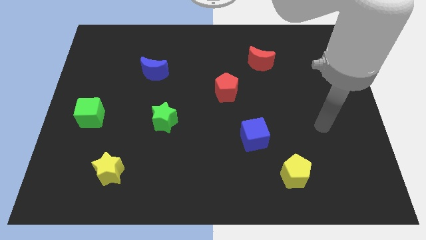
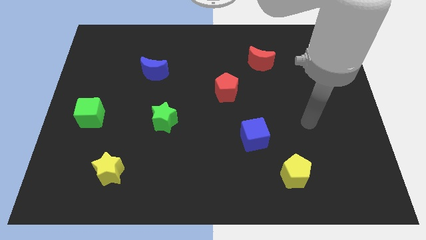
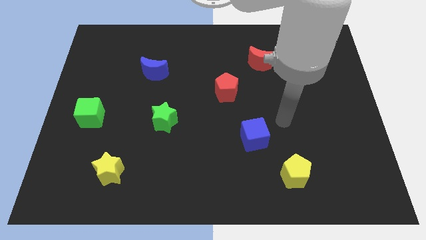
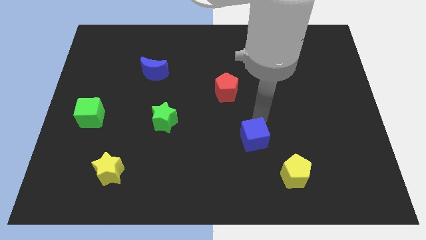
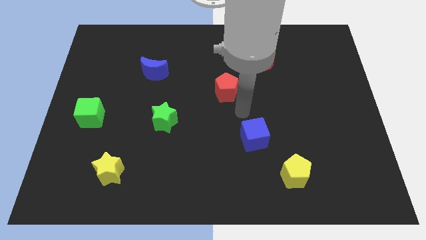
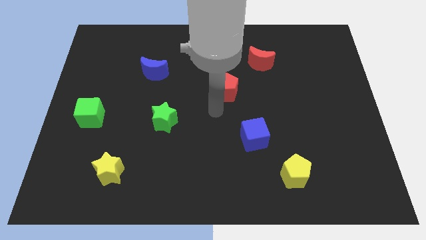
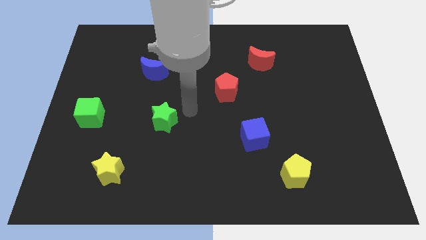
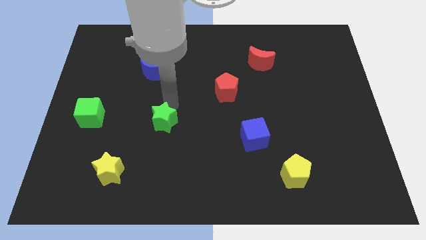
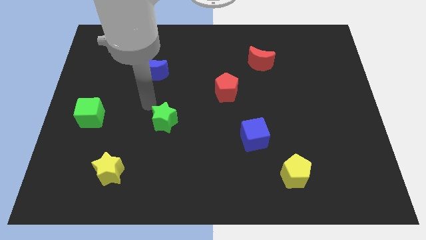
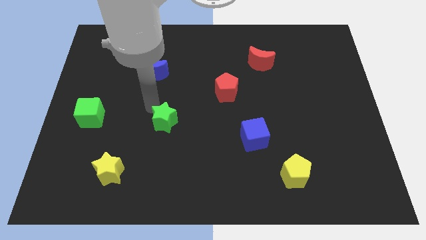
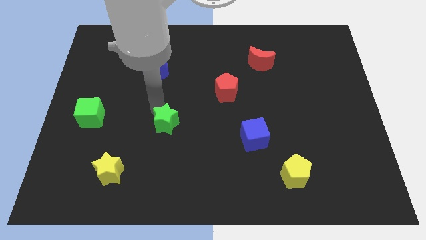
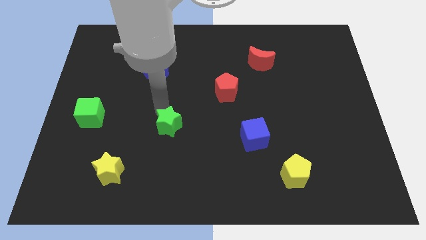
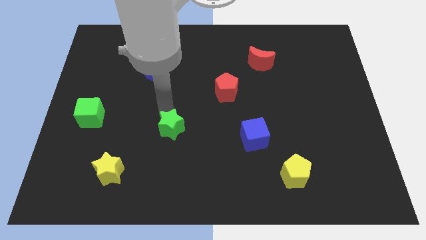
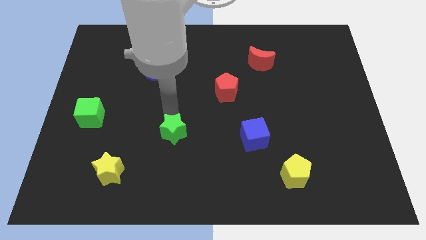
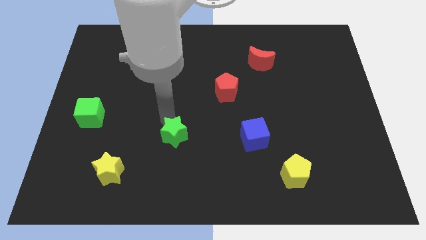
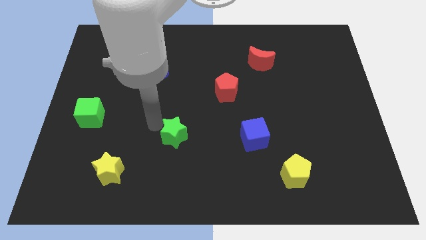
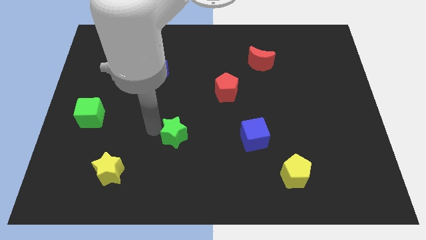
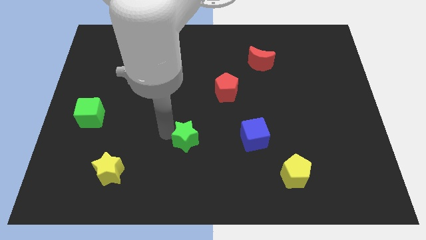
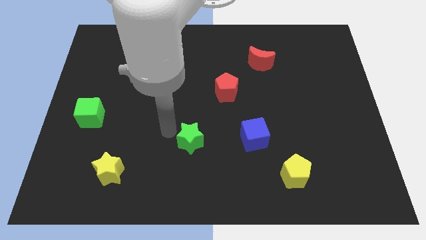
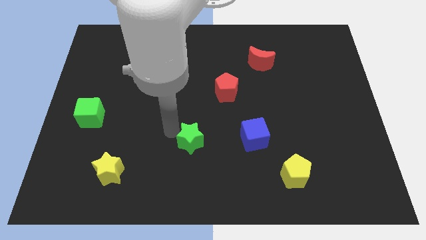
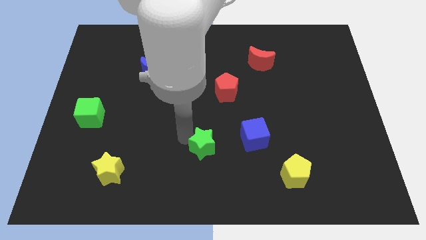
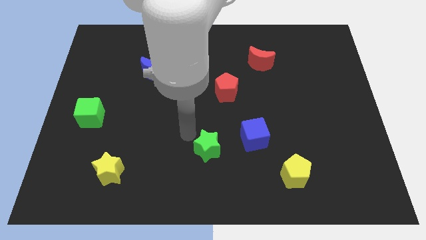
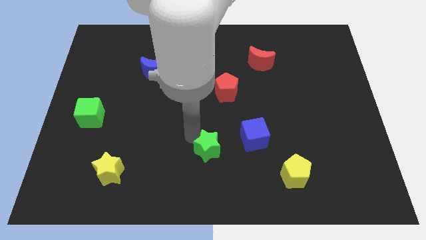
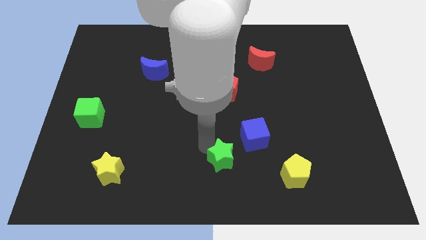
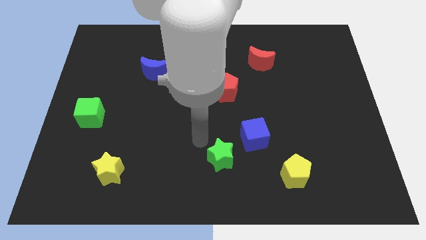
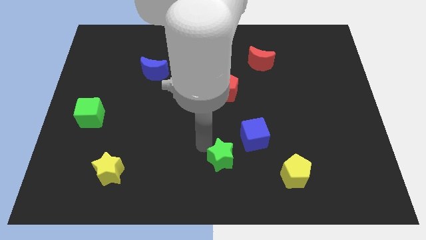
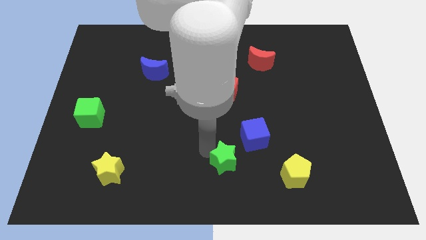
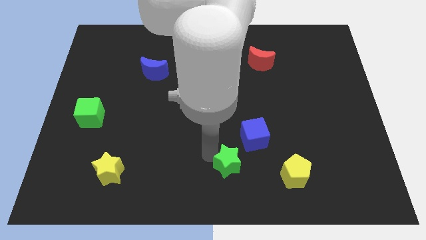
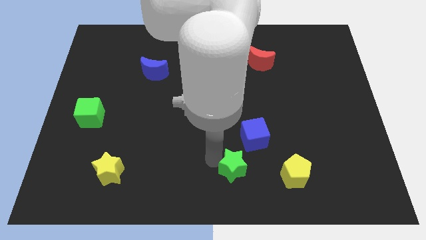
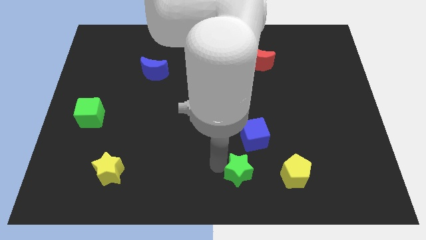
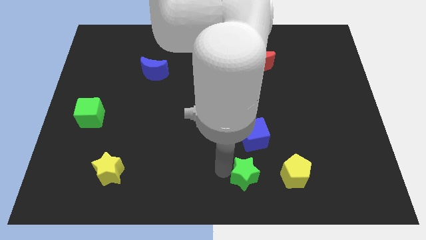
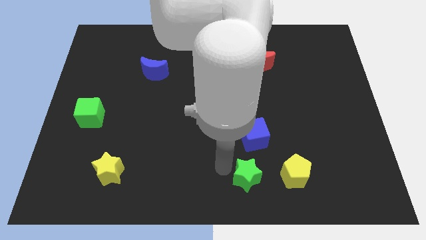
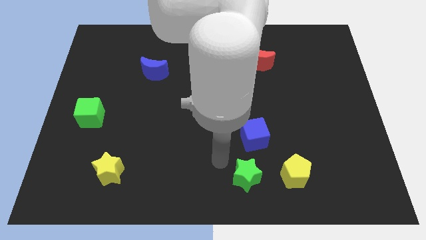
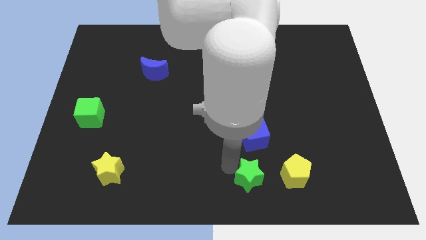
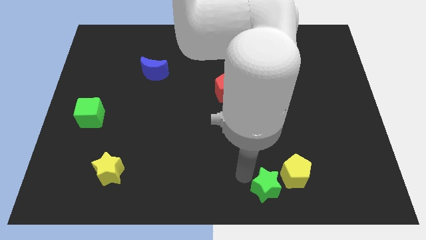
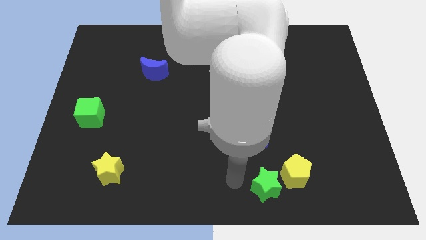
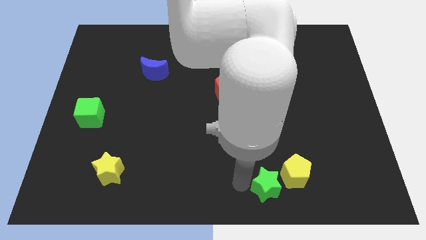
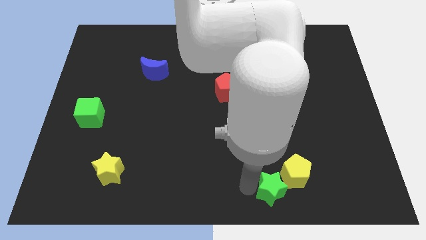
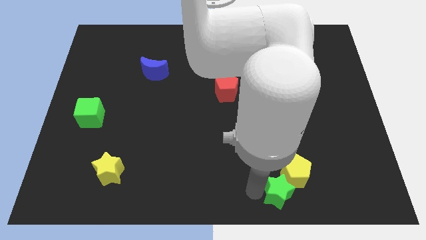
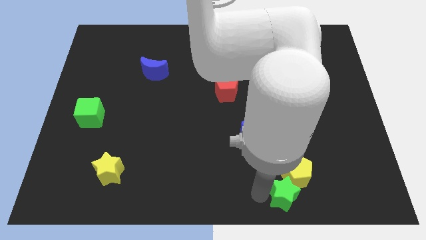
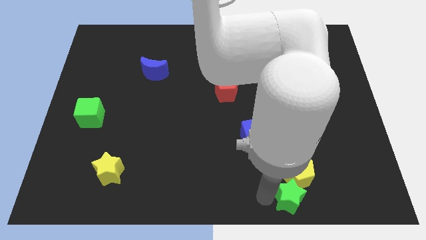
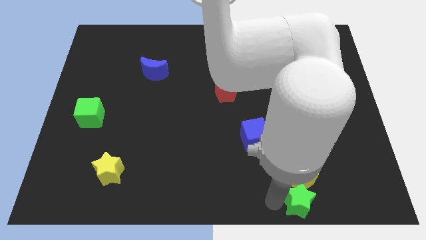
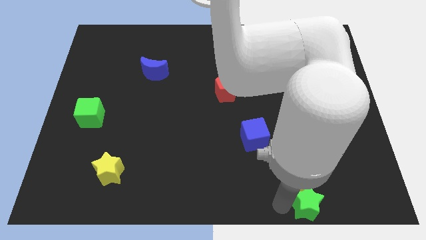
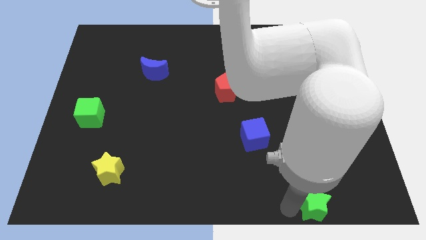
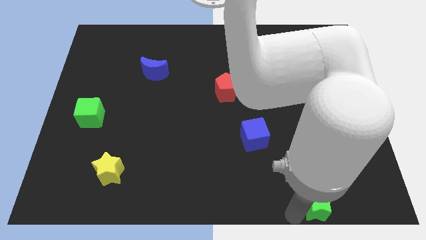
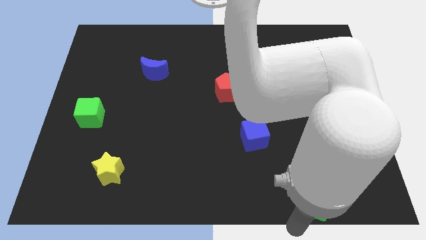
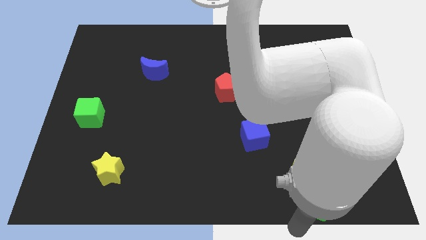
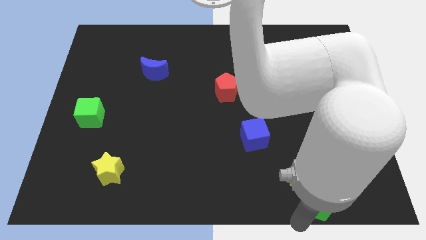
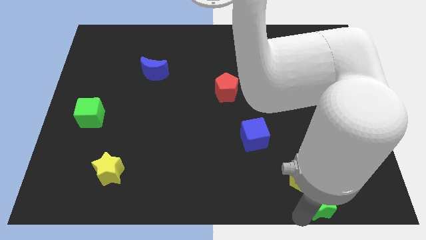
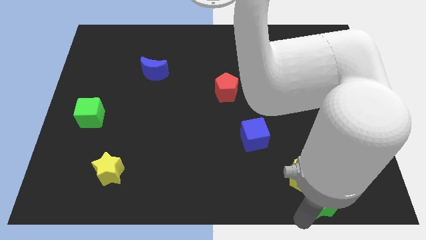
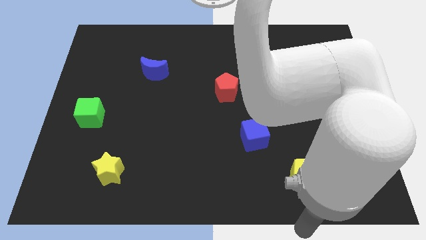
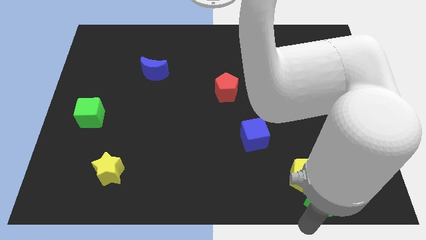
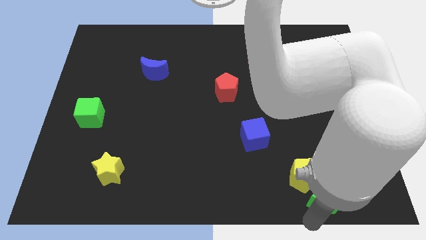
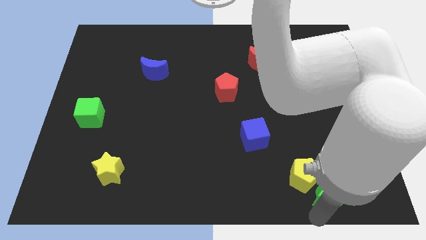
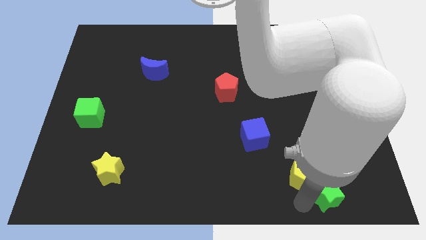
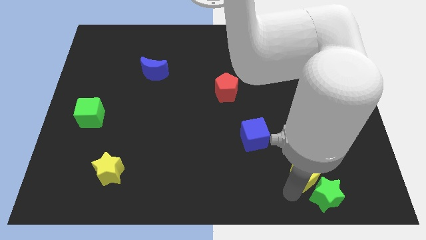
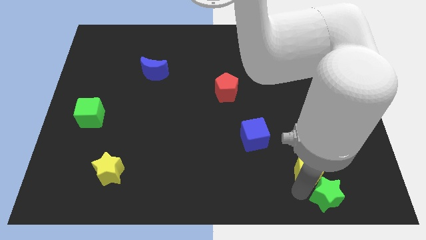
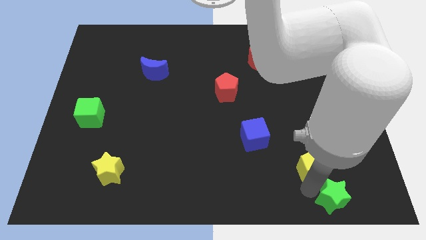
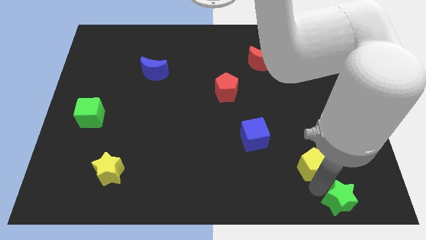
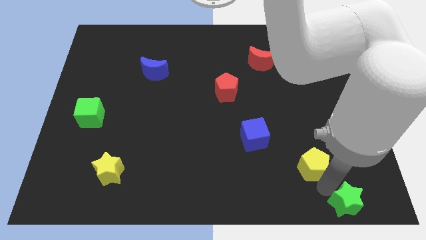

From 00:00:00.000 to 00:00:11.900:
push the green star to the bottom right
